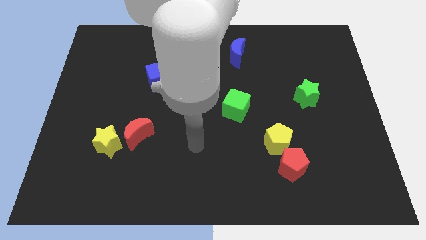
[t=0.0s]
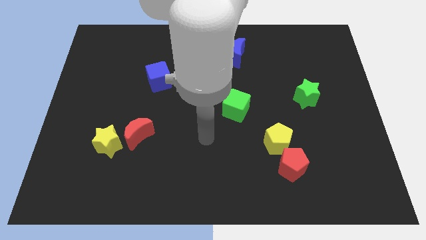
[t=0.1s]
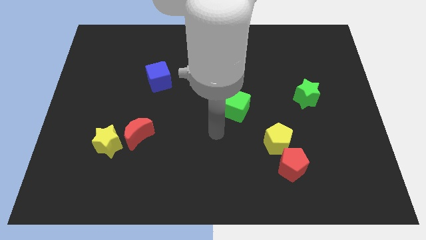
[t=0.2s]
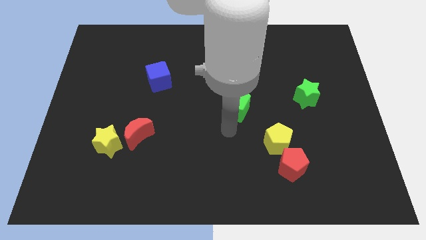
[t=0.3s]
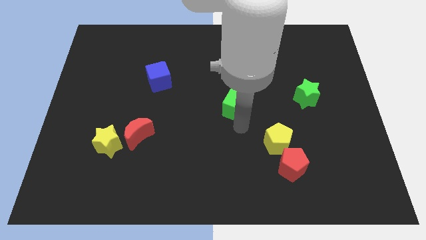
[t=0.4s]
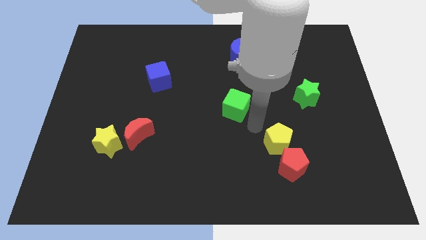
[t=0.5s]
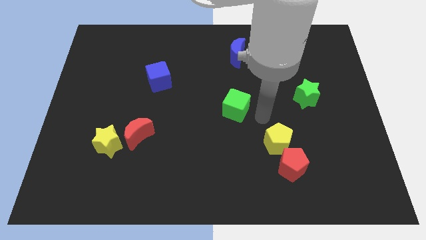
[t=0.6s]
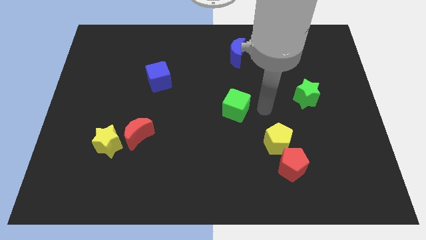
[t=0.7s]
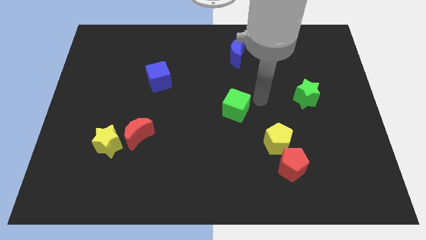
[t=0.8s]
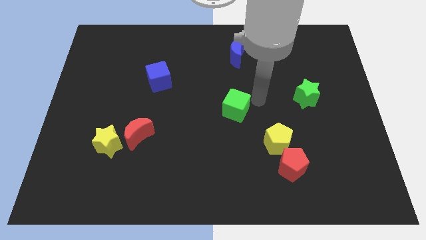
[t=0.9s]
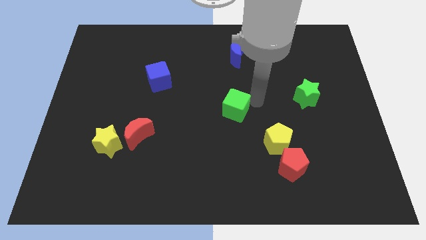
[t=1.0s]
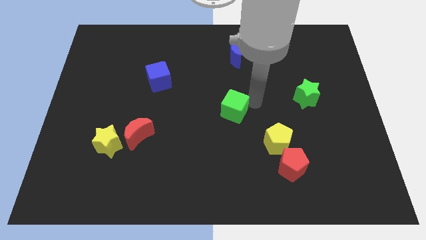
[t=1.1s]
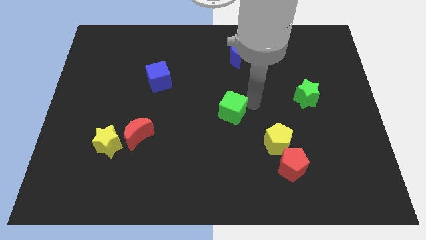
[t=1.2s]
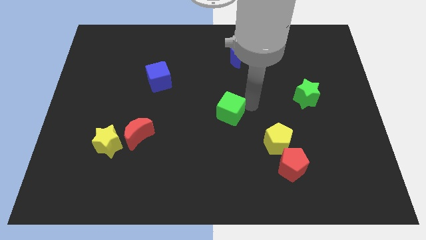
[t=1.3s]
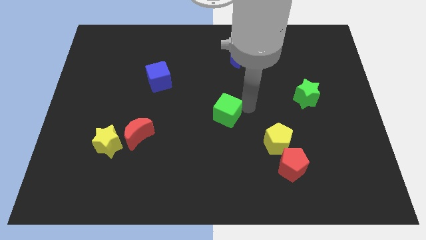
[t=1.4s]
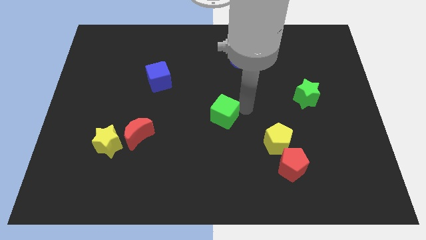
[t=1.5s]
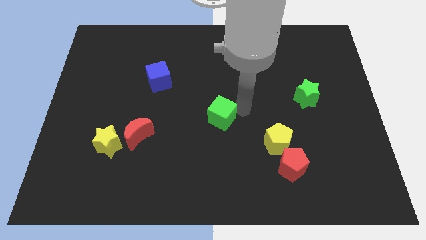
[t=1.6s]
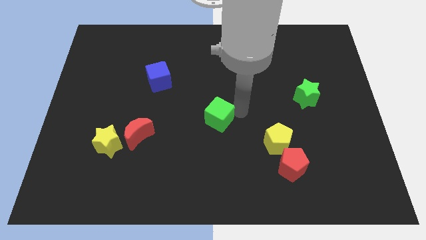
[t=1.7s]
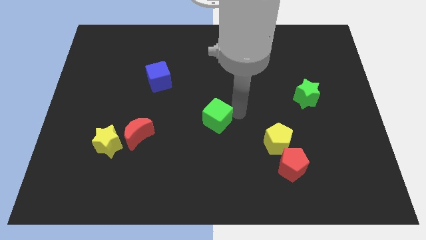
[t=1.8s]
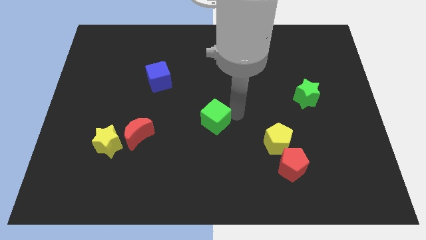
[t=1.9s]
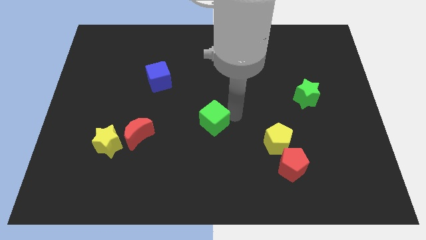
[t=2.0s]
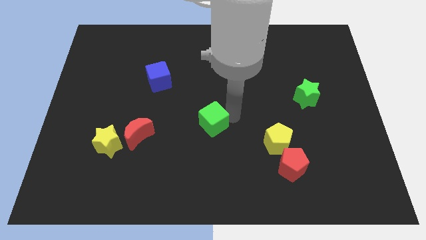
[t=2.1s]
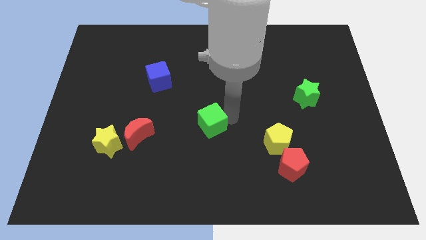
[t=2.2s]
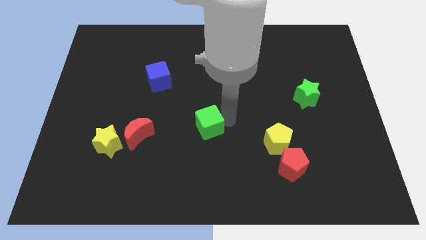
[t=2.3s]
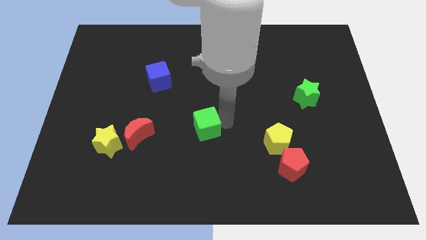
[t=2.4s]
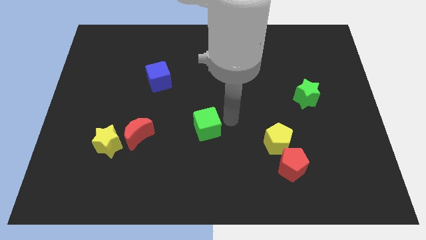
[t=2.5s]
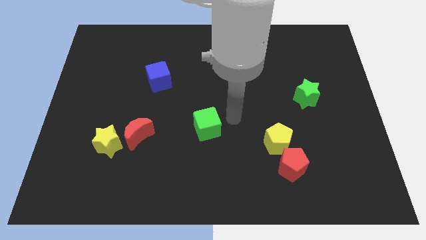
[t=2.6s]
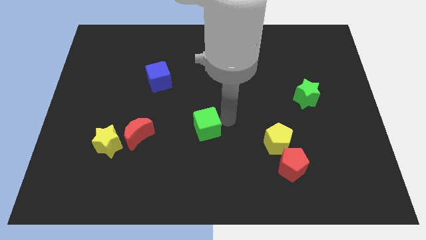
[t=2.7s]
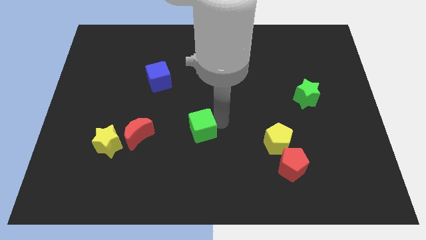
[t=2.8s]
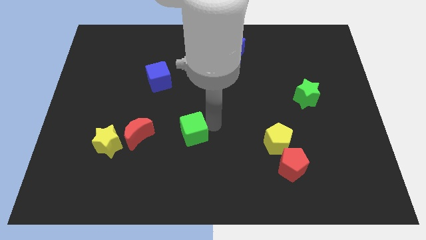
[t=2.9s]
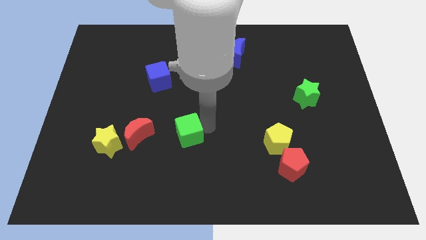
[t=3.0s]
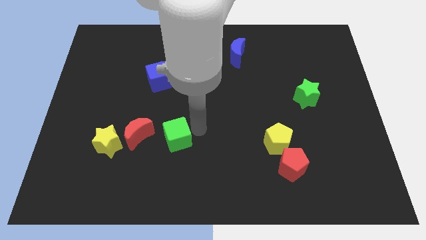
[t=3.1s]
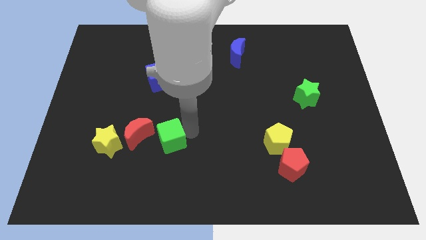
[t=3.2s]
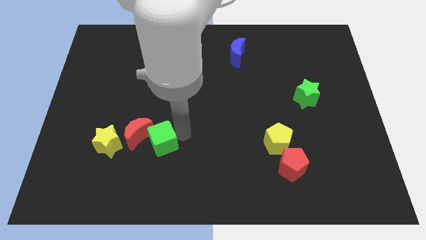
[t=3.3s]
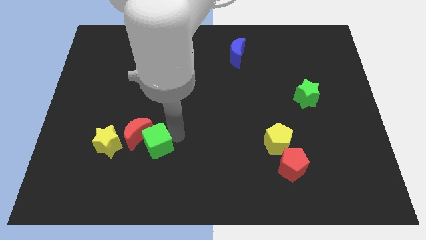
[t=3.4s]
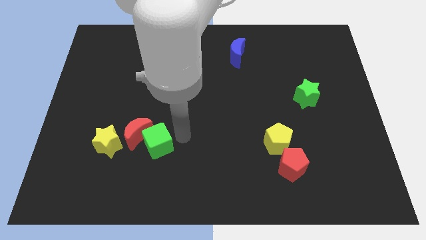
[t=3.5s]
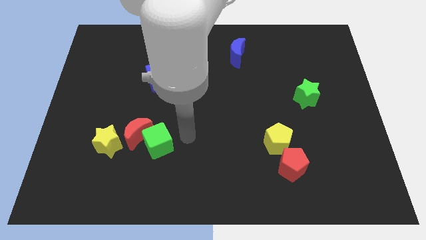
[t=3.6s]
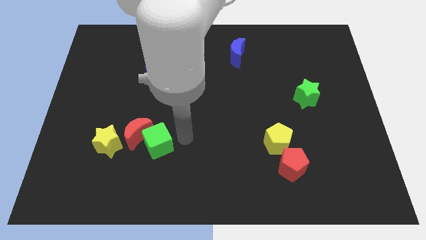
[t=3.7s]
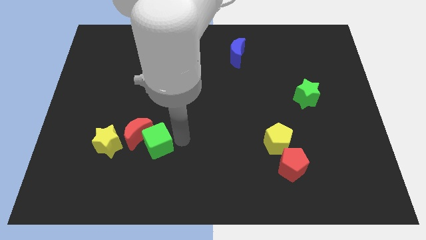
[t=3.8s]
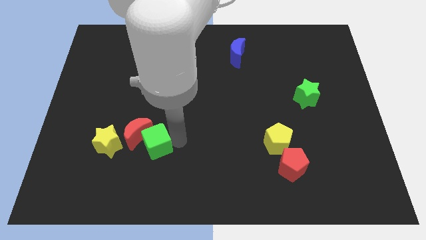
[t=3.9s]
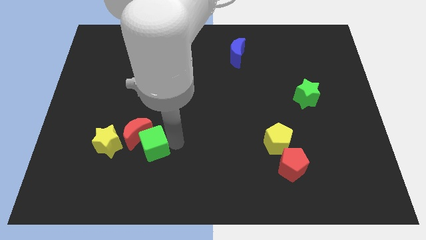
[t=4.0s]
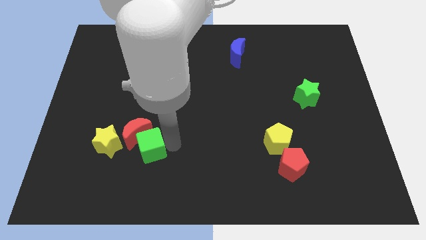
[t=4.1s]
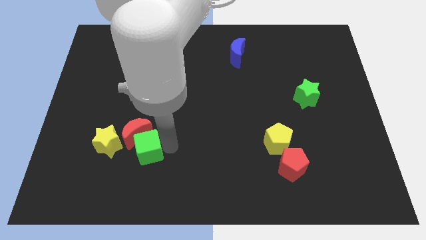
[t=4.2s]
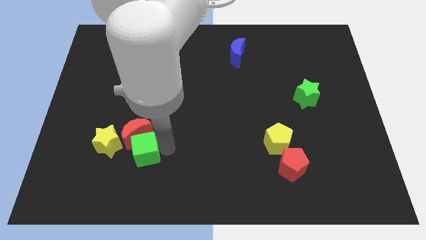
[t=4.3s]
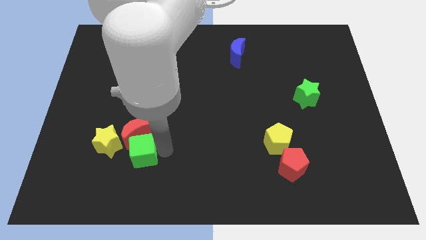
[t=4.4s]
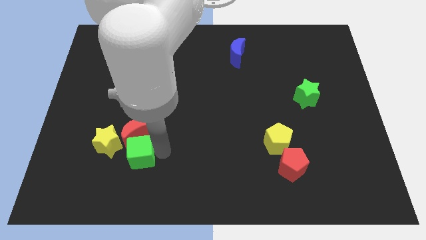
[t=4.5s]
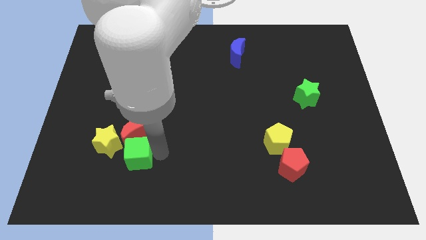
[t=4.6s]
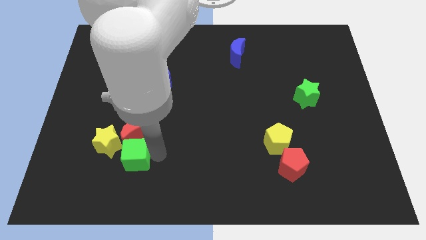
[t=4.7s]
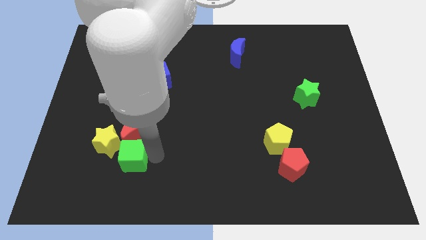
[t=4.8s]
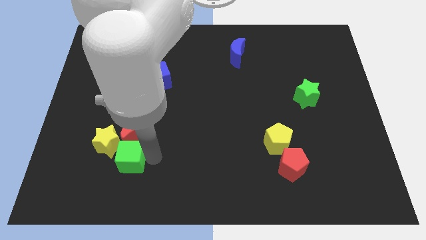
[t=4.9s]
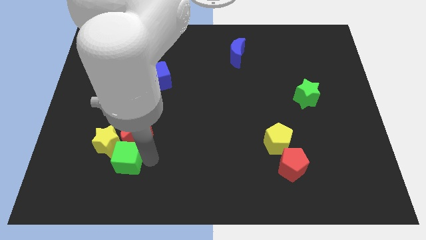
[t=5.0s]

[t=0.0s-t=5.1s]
slide the green cube next to the yellow star

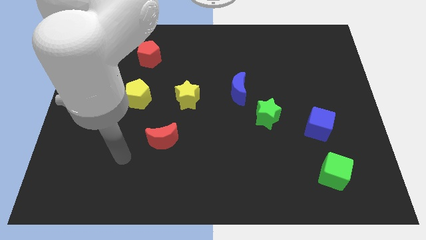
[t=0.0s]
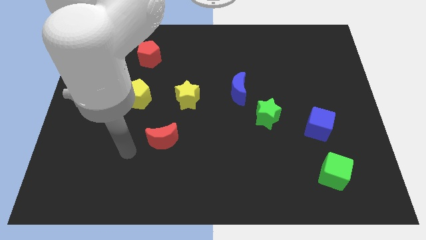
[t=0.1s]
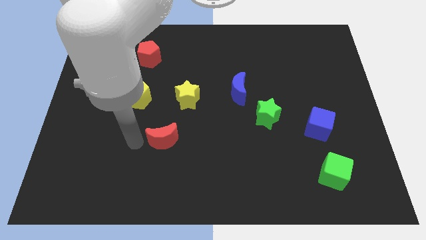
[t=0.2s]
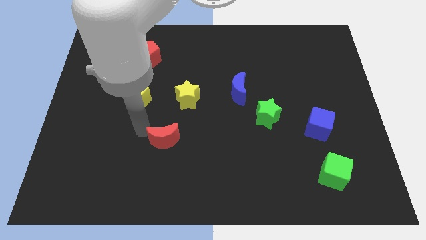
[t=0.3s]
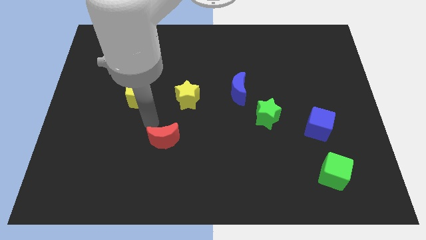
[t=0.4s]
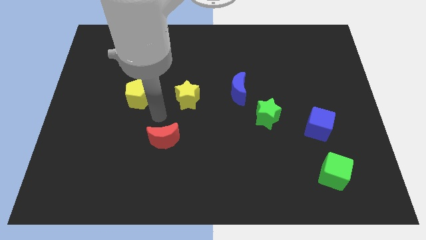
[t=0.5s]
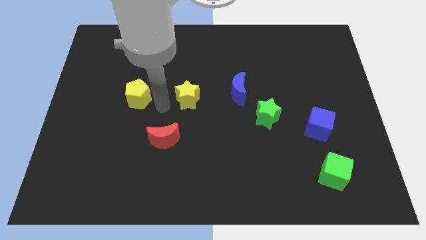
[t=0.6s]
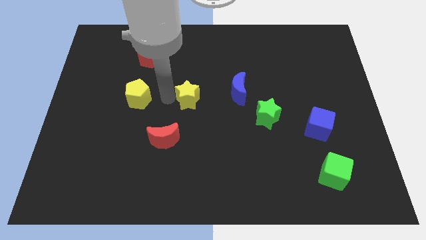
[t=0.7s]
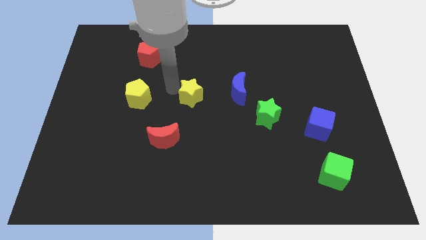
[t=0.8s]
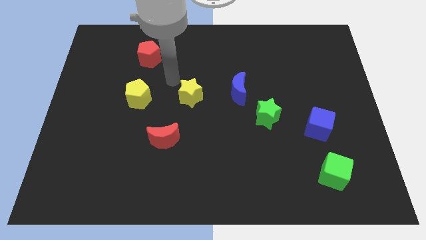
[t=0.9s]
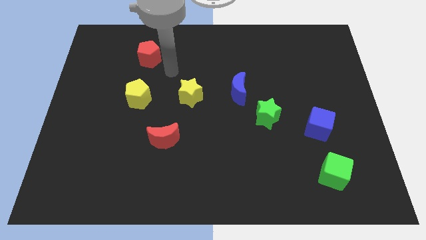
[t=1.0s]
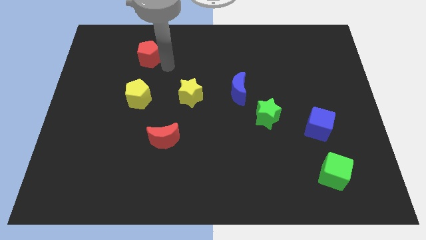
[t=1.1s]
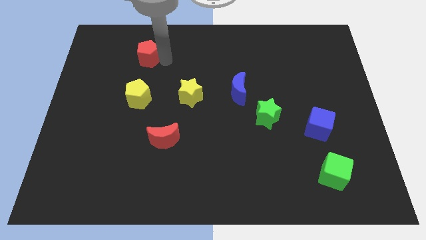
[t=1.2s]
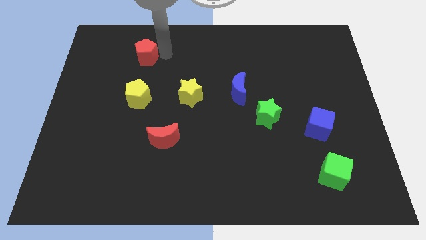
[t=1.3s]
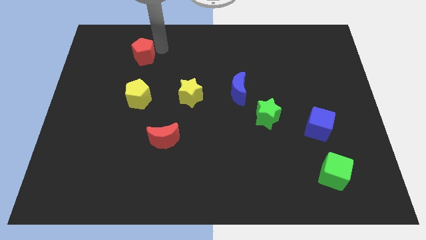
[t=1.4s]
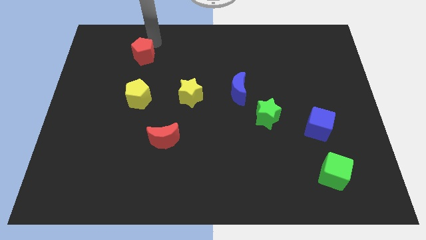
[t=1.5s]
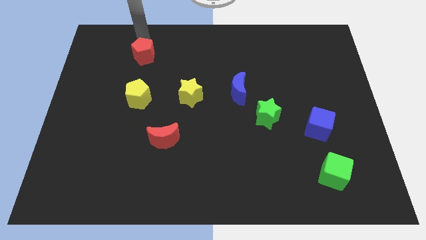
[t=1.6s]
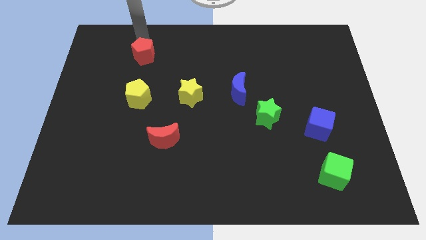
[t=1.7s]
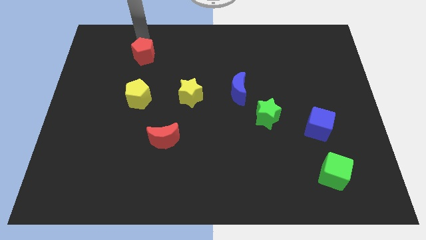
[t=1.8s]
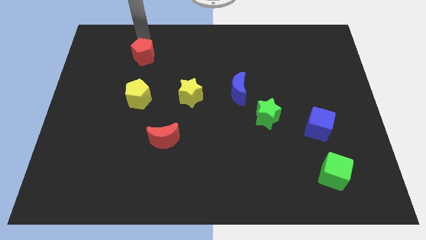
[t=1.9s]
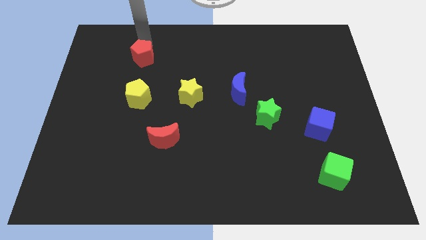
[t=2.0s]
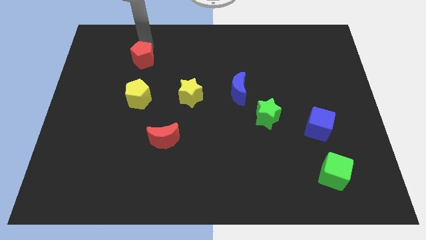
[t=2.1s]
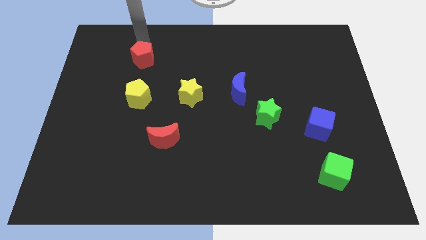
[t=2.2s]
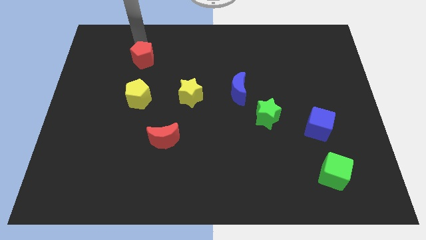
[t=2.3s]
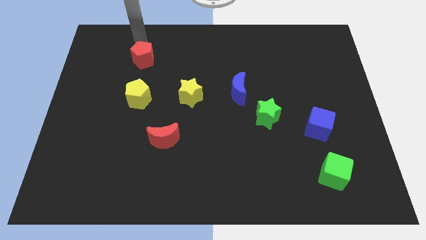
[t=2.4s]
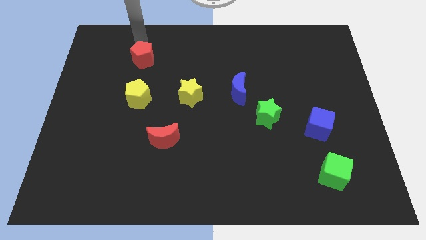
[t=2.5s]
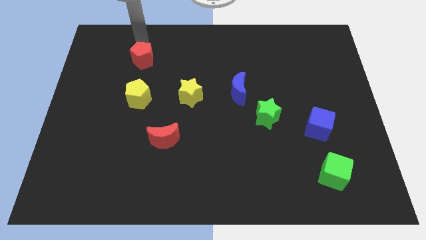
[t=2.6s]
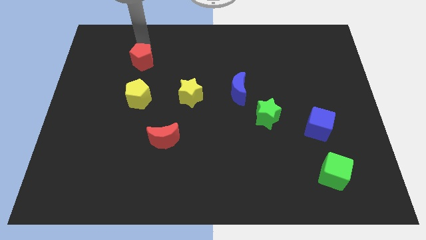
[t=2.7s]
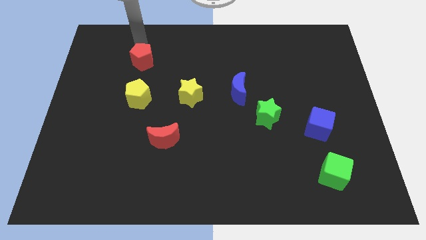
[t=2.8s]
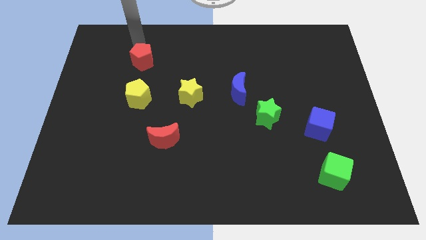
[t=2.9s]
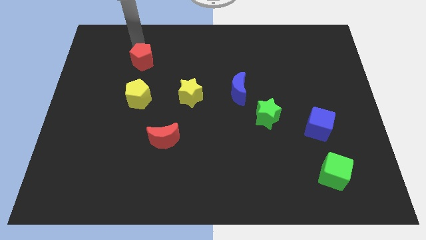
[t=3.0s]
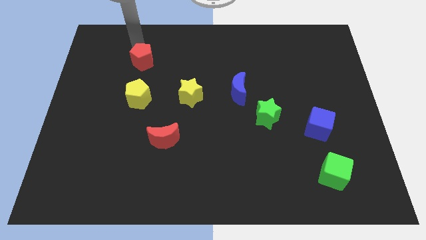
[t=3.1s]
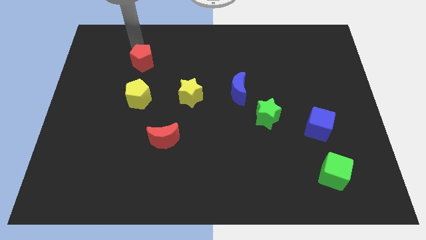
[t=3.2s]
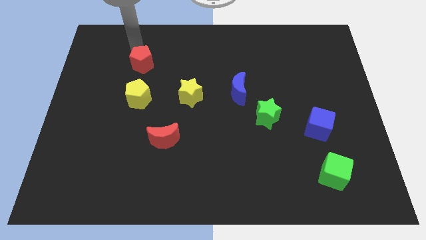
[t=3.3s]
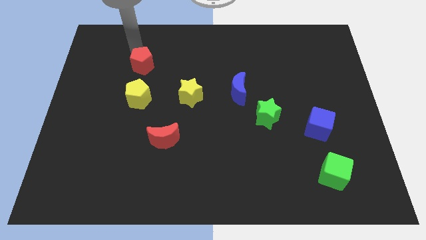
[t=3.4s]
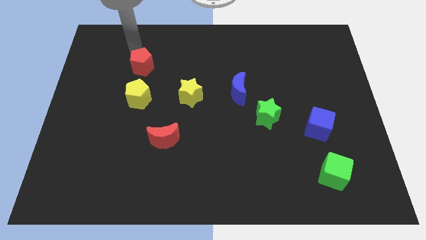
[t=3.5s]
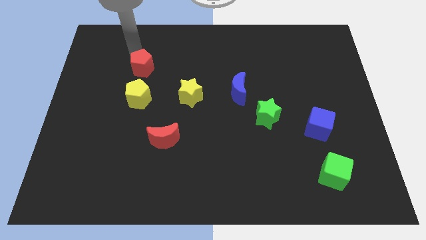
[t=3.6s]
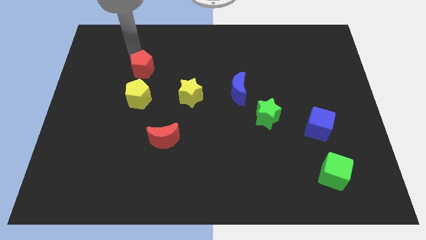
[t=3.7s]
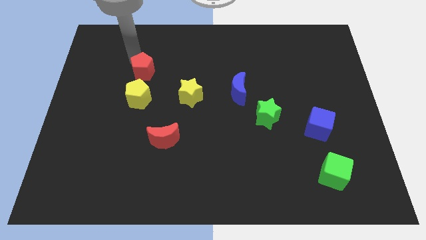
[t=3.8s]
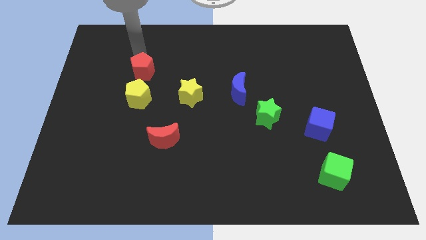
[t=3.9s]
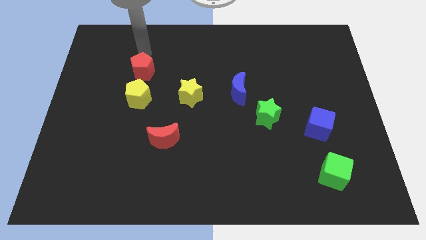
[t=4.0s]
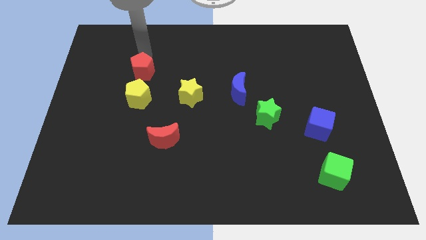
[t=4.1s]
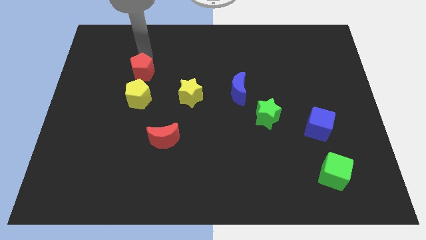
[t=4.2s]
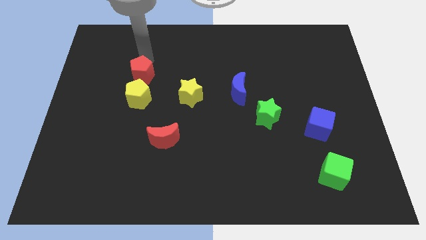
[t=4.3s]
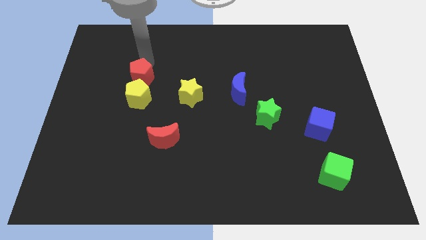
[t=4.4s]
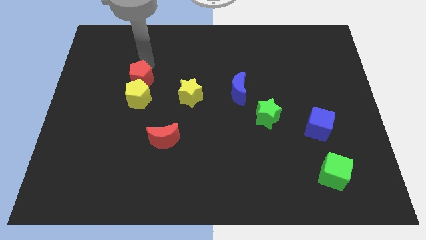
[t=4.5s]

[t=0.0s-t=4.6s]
move the red pentagon next to the yellow pentagon
